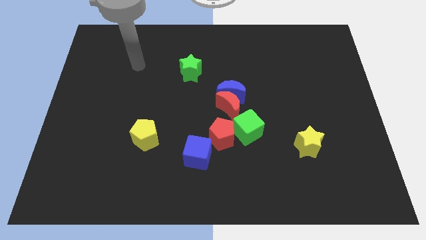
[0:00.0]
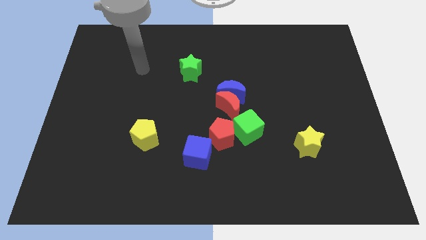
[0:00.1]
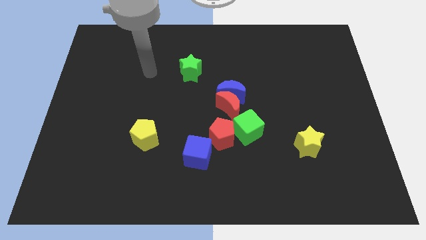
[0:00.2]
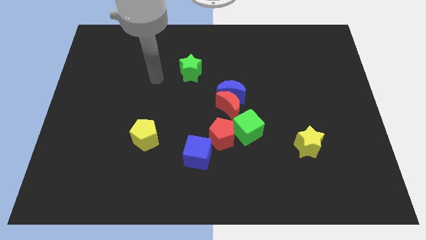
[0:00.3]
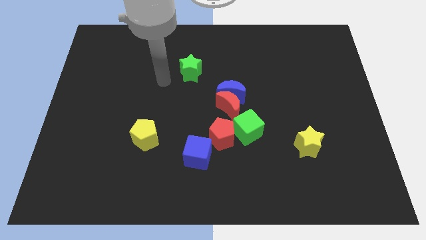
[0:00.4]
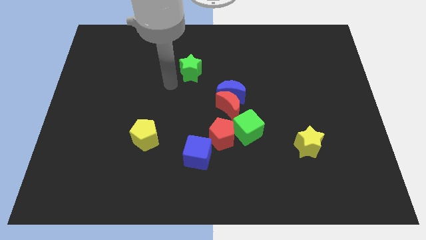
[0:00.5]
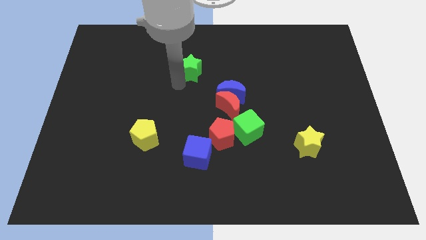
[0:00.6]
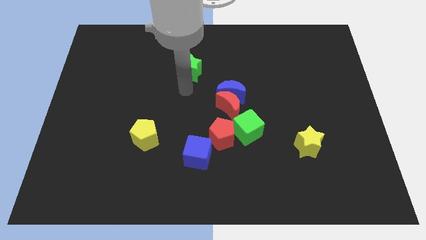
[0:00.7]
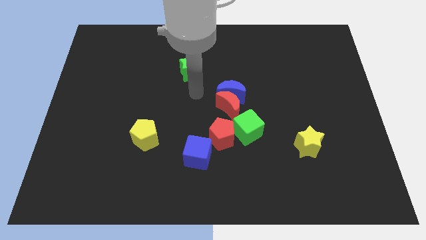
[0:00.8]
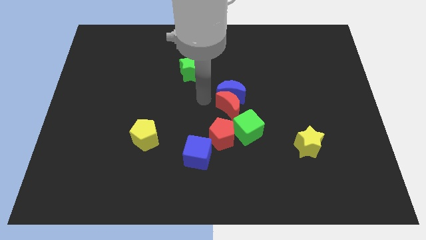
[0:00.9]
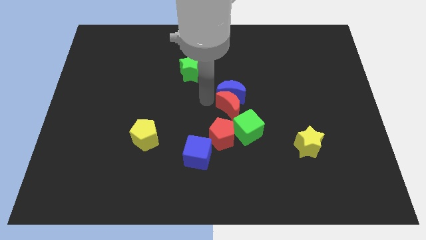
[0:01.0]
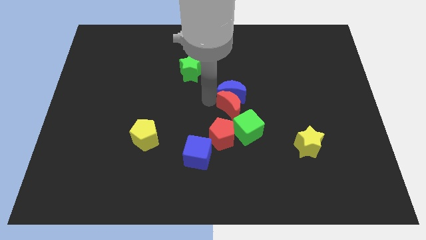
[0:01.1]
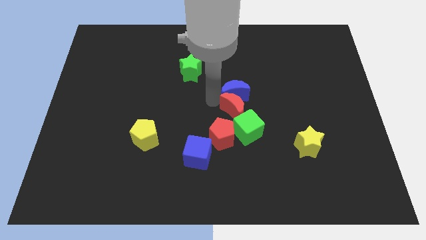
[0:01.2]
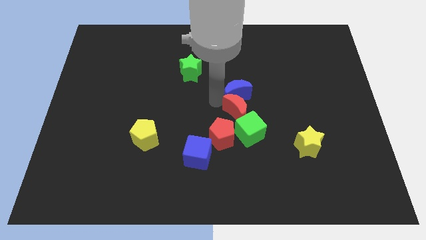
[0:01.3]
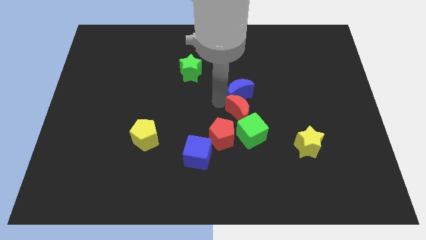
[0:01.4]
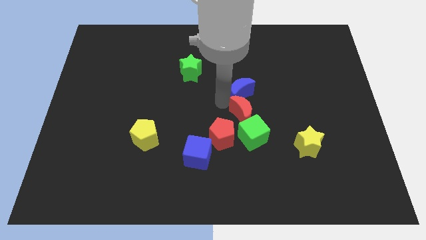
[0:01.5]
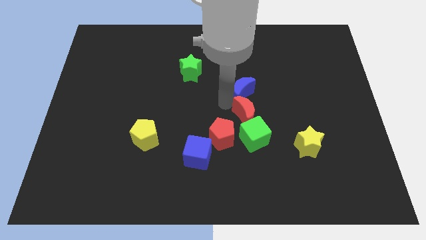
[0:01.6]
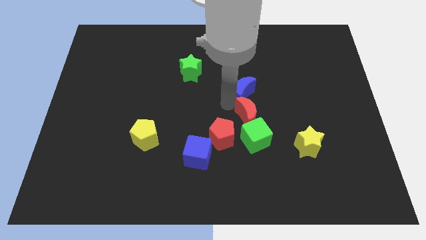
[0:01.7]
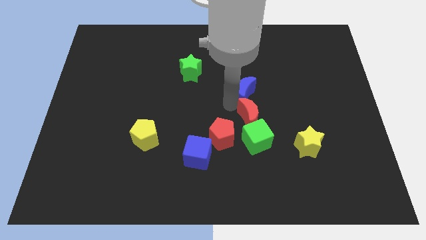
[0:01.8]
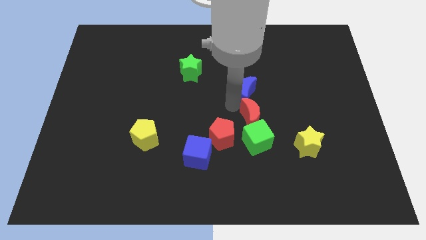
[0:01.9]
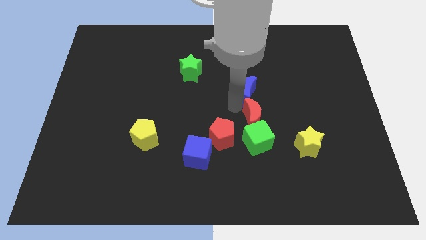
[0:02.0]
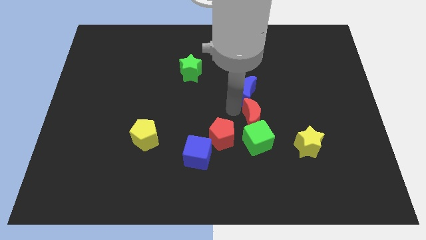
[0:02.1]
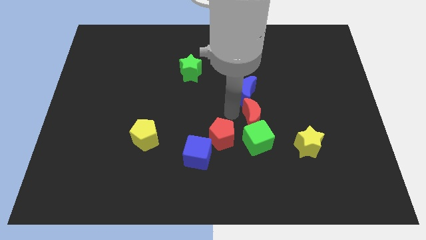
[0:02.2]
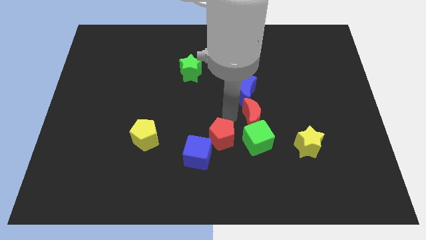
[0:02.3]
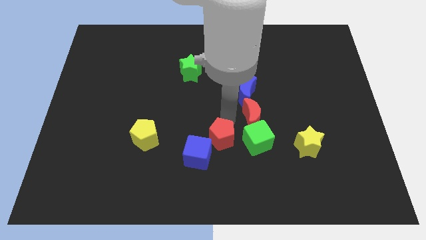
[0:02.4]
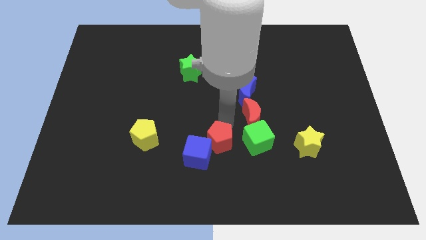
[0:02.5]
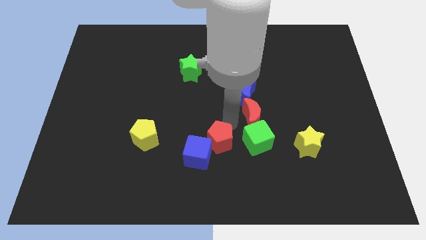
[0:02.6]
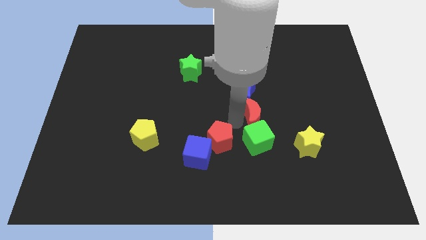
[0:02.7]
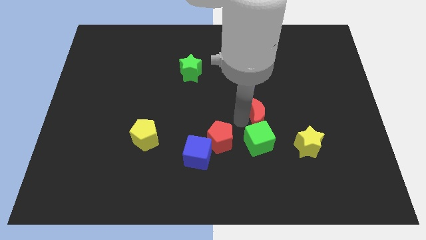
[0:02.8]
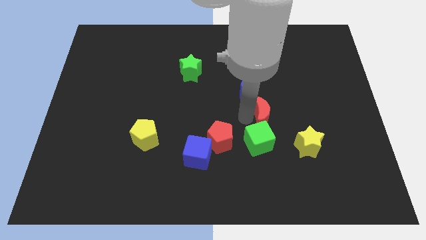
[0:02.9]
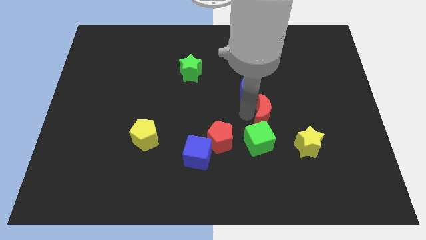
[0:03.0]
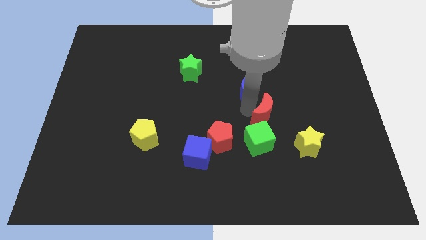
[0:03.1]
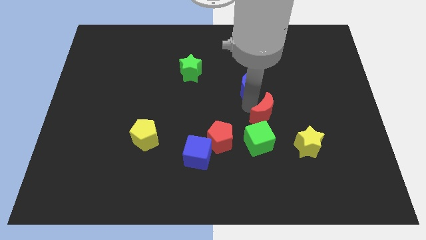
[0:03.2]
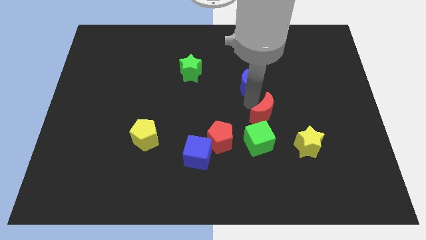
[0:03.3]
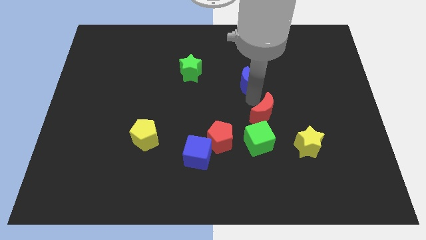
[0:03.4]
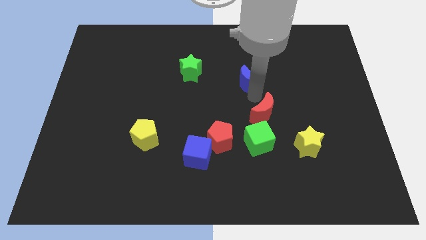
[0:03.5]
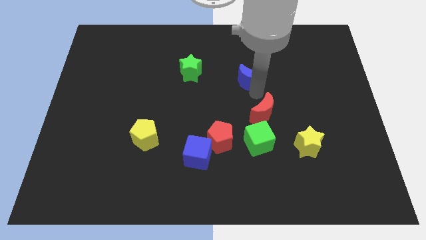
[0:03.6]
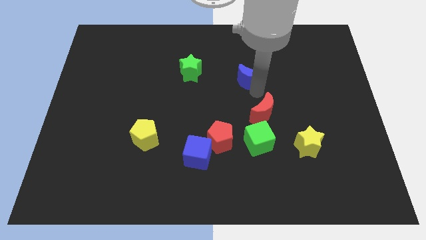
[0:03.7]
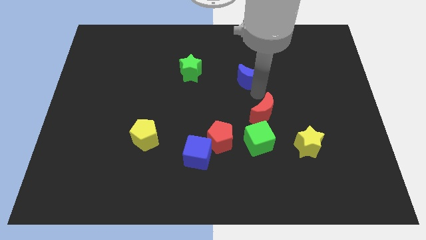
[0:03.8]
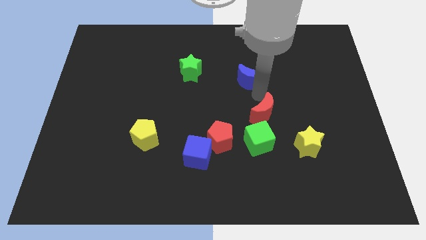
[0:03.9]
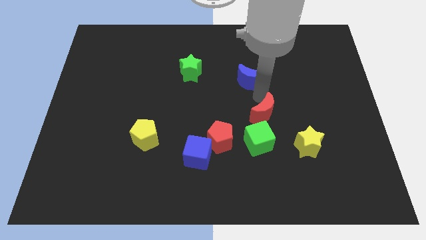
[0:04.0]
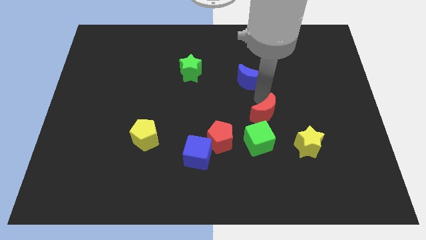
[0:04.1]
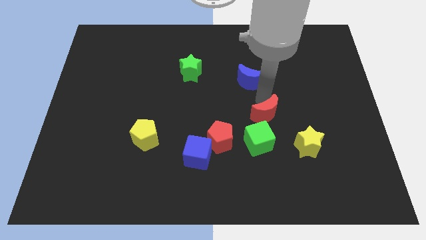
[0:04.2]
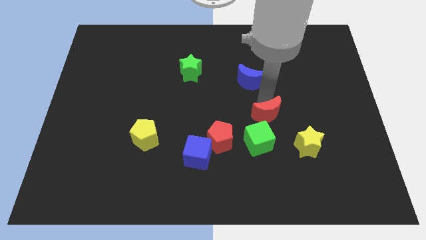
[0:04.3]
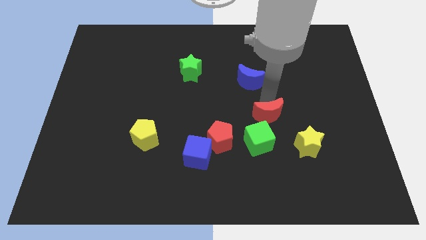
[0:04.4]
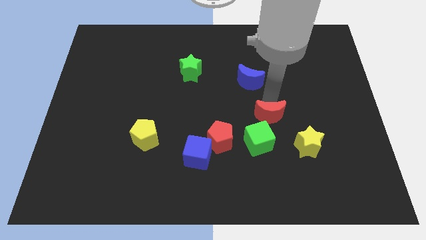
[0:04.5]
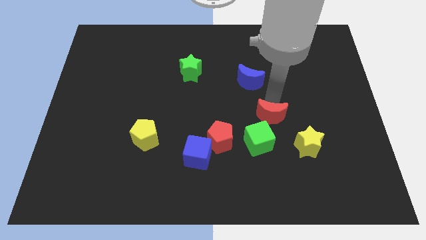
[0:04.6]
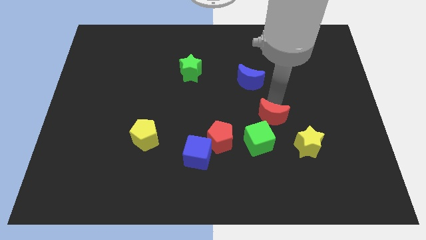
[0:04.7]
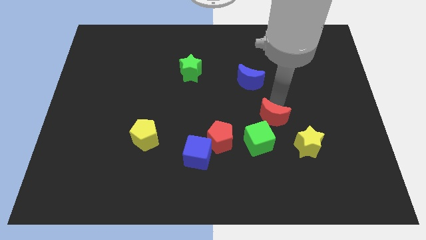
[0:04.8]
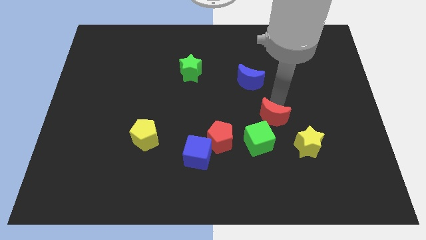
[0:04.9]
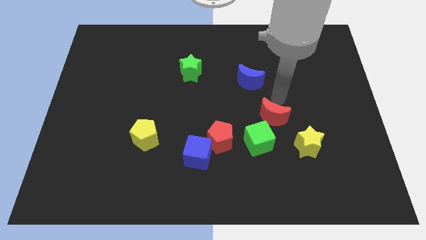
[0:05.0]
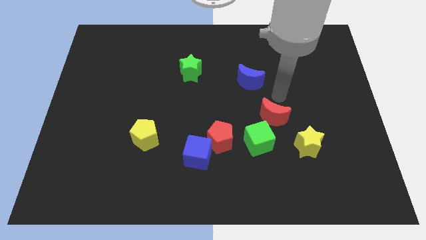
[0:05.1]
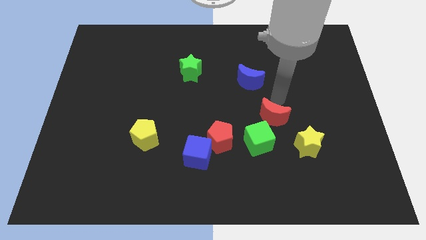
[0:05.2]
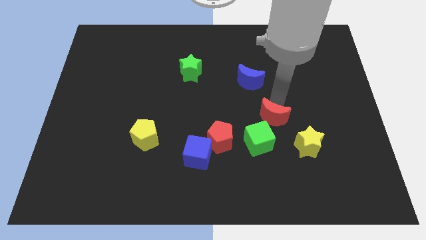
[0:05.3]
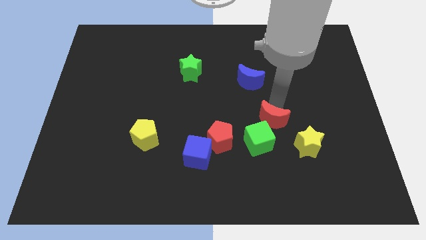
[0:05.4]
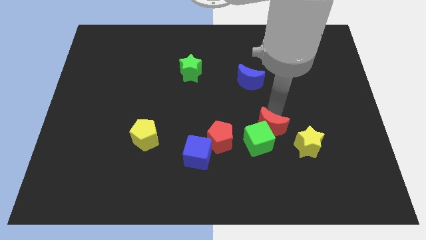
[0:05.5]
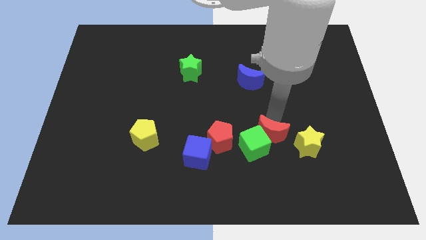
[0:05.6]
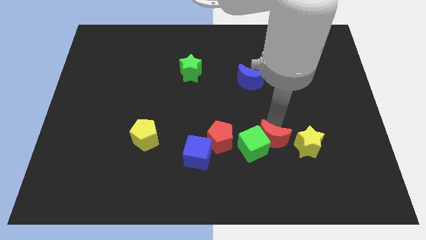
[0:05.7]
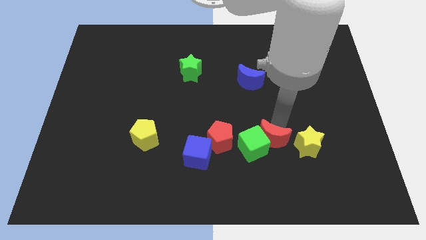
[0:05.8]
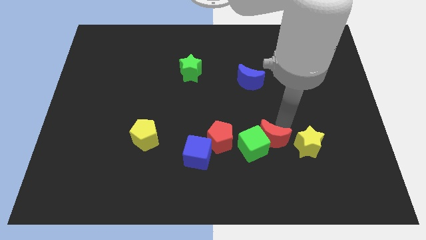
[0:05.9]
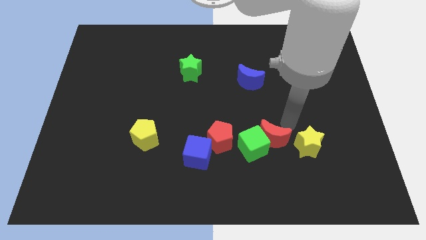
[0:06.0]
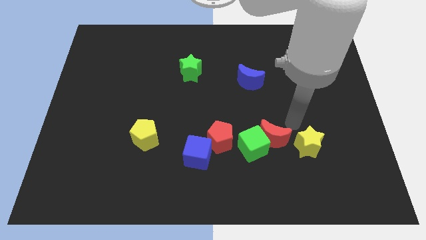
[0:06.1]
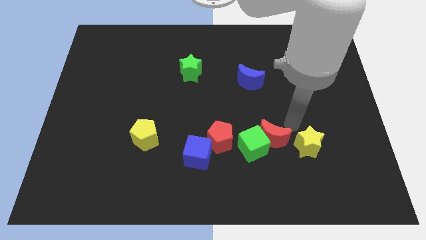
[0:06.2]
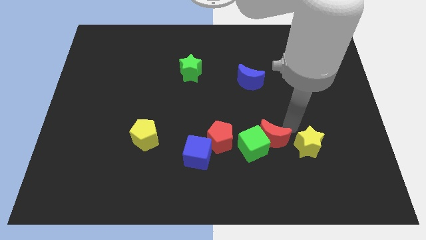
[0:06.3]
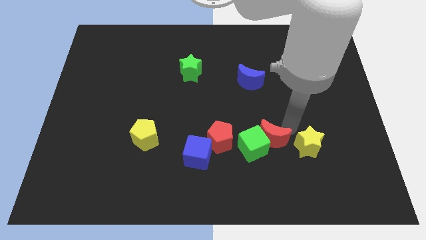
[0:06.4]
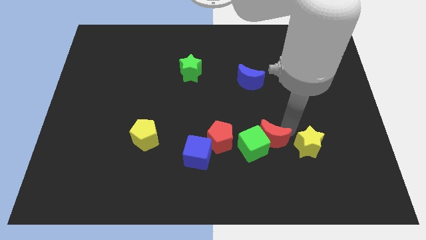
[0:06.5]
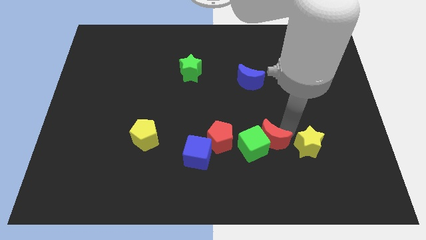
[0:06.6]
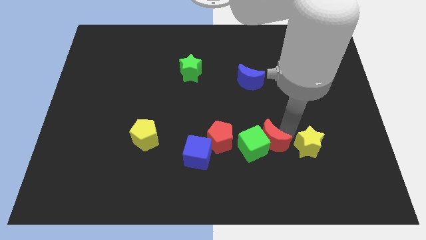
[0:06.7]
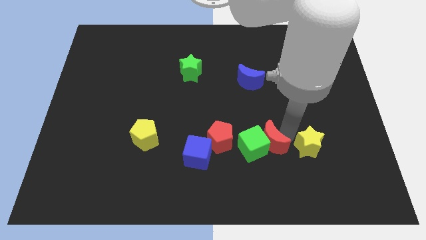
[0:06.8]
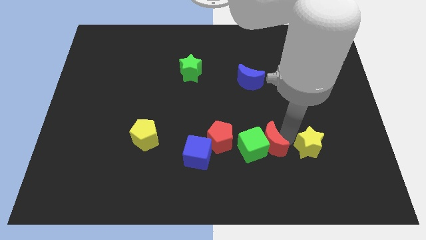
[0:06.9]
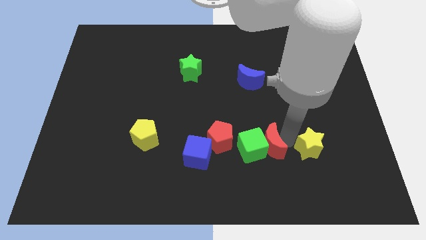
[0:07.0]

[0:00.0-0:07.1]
slide the red moon downwards a bit

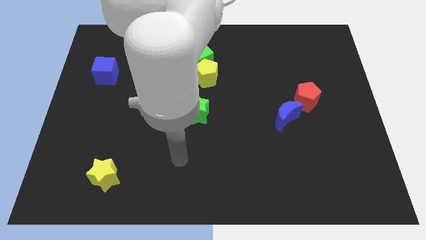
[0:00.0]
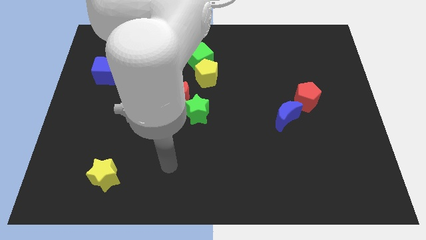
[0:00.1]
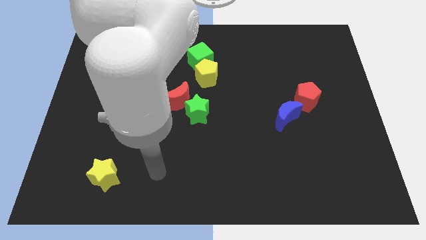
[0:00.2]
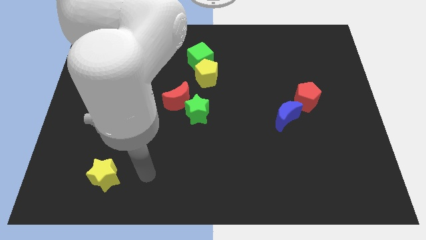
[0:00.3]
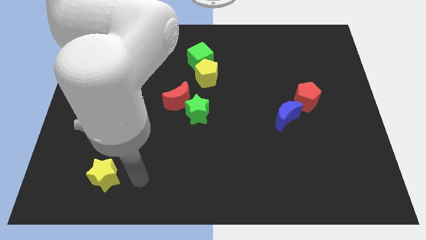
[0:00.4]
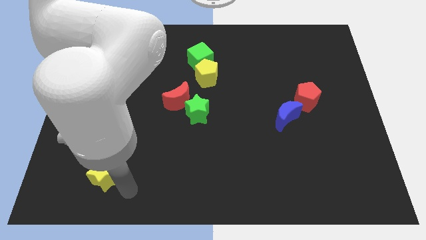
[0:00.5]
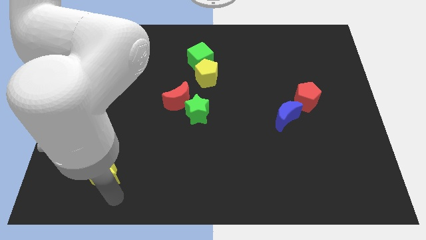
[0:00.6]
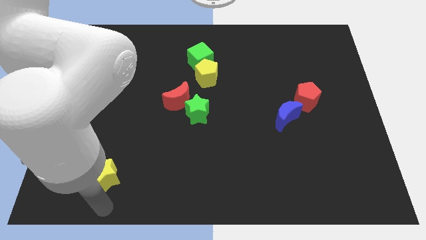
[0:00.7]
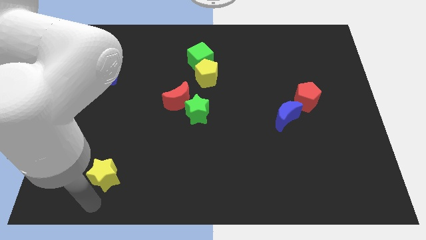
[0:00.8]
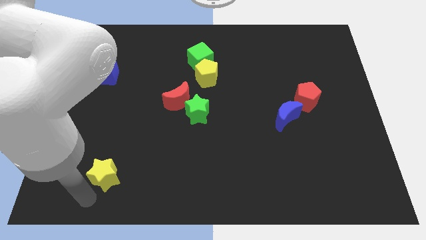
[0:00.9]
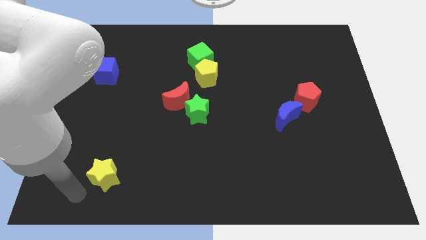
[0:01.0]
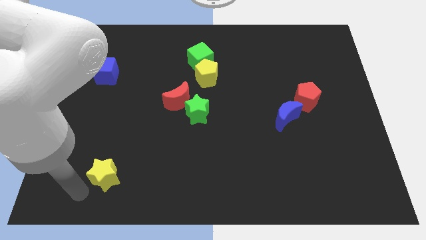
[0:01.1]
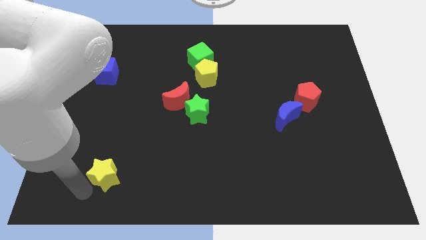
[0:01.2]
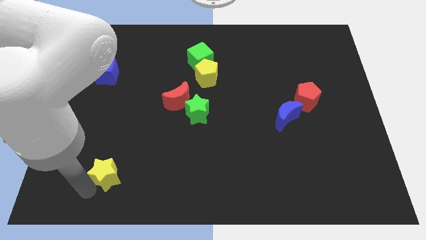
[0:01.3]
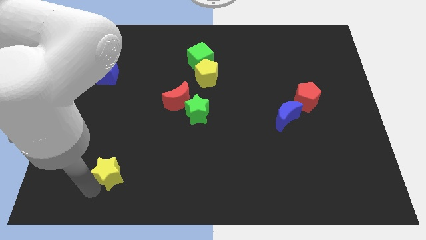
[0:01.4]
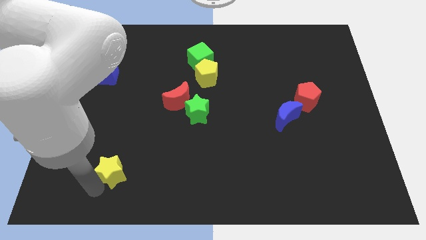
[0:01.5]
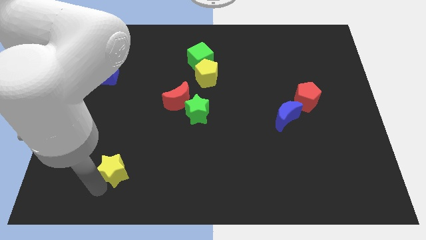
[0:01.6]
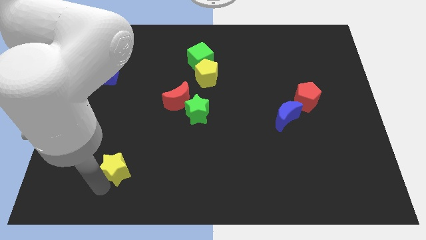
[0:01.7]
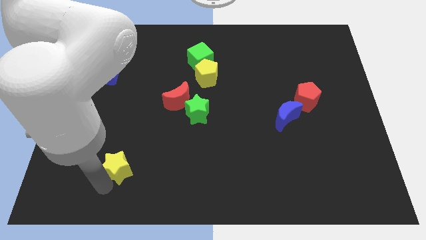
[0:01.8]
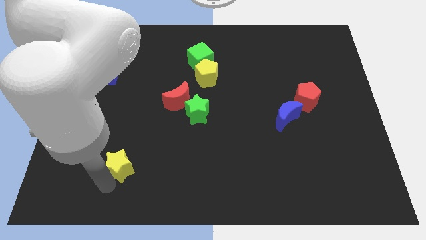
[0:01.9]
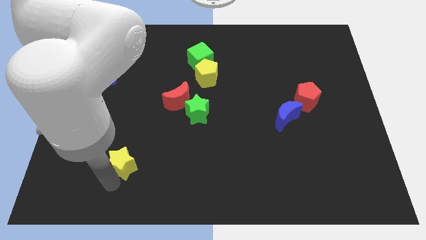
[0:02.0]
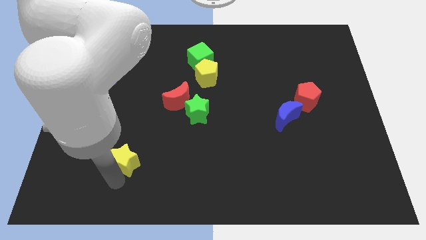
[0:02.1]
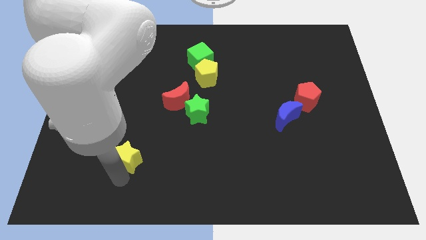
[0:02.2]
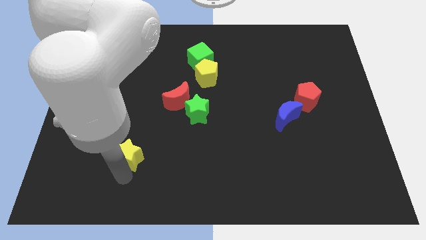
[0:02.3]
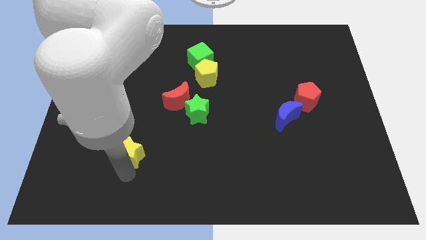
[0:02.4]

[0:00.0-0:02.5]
push the yellow star slightly upwards and then right
